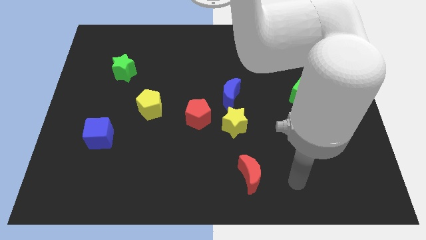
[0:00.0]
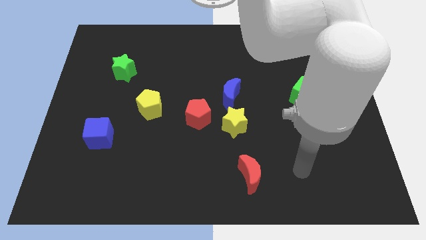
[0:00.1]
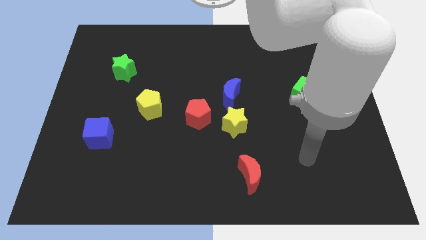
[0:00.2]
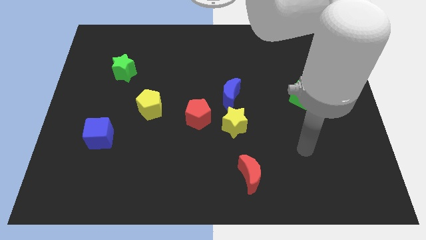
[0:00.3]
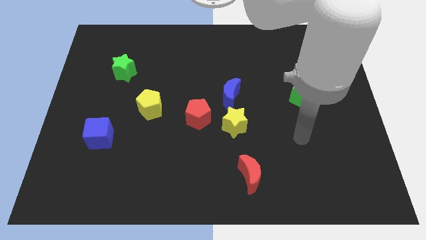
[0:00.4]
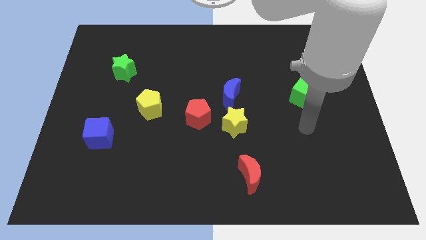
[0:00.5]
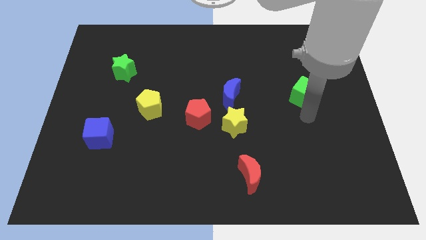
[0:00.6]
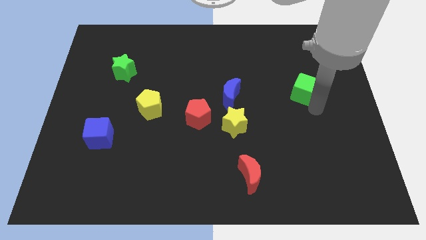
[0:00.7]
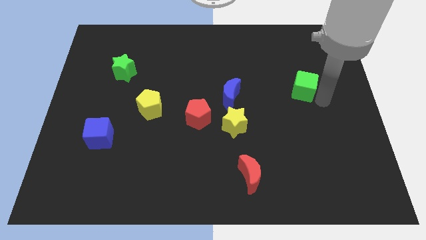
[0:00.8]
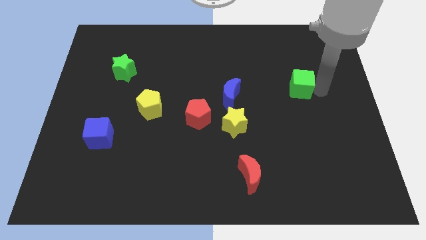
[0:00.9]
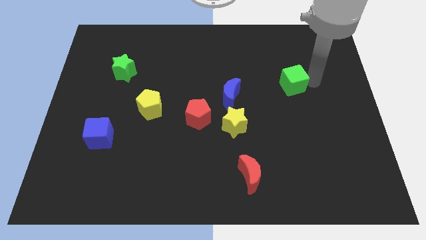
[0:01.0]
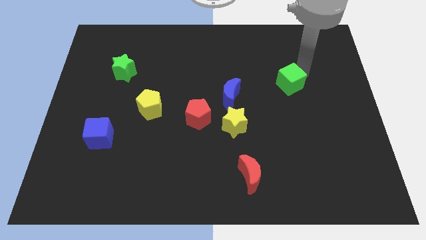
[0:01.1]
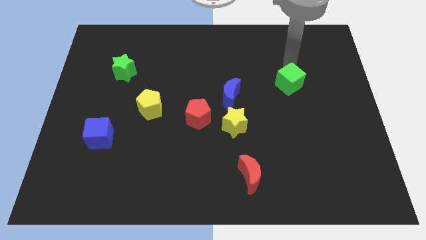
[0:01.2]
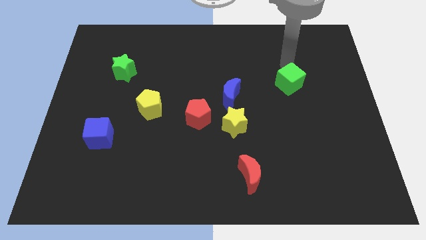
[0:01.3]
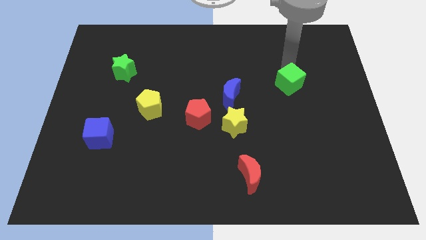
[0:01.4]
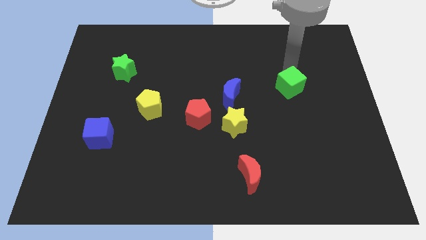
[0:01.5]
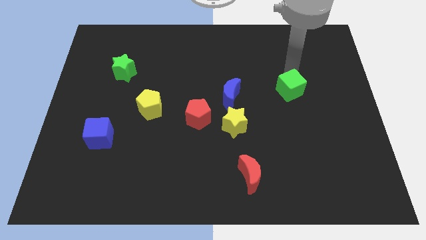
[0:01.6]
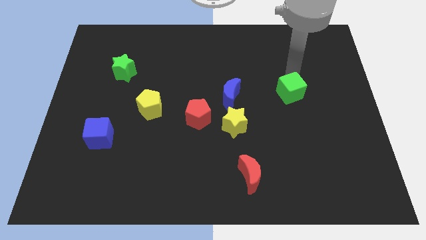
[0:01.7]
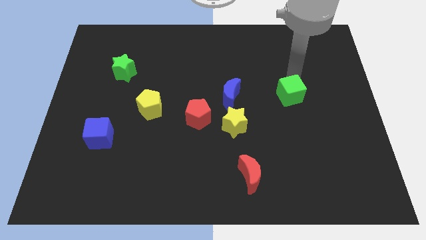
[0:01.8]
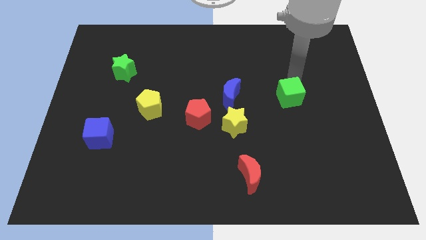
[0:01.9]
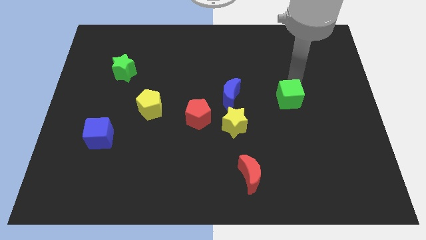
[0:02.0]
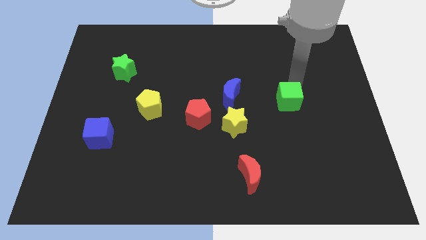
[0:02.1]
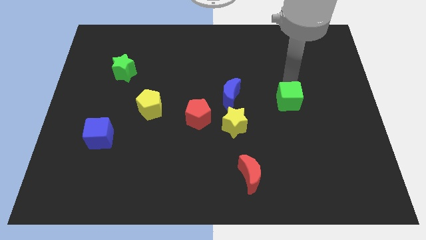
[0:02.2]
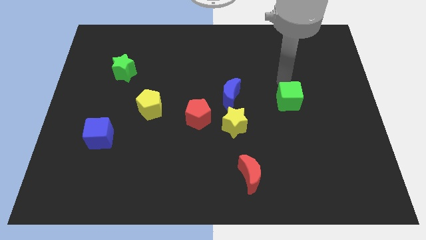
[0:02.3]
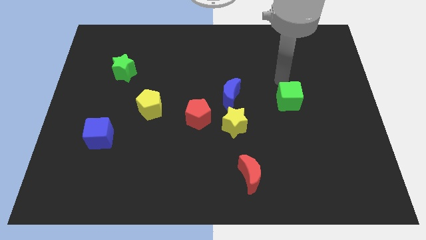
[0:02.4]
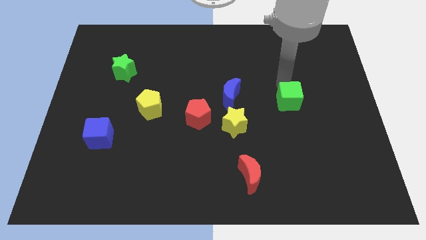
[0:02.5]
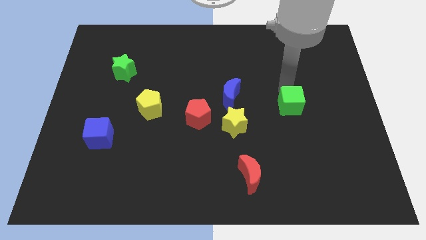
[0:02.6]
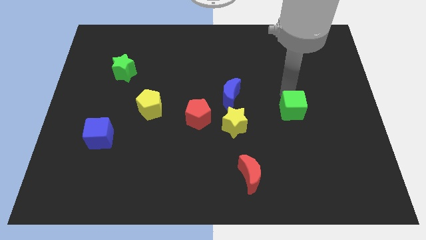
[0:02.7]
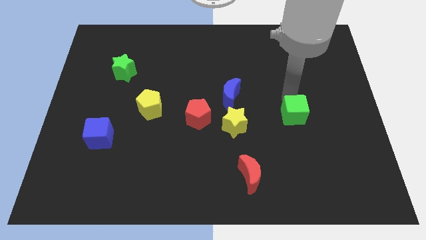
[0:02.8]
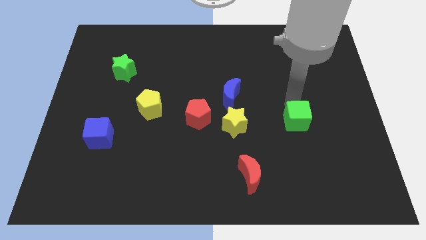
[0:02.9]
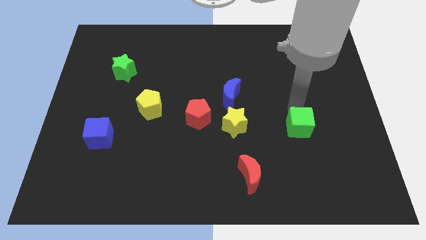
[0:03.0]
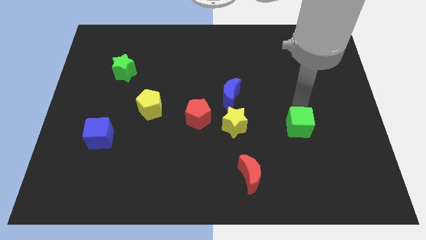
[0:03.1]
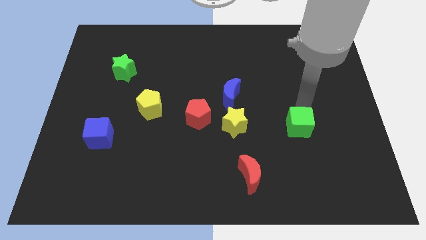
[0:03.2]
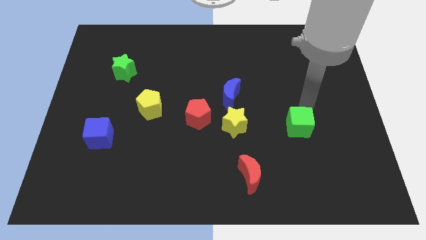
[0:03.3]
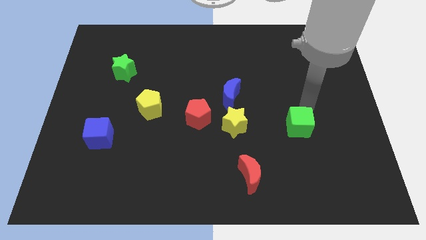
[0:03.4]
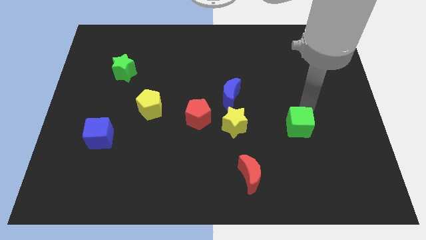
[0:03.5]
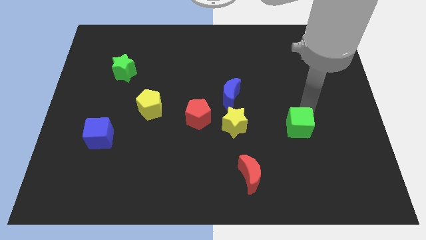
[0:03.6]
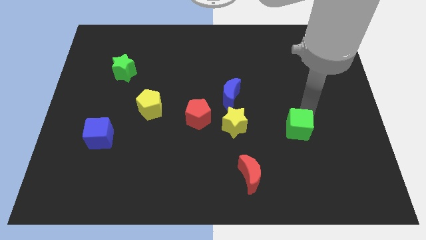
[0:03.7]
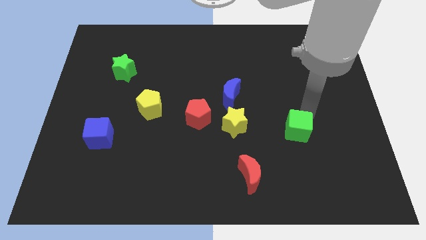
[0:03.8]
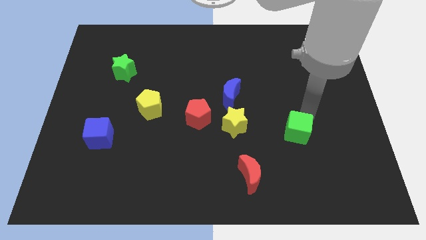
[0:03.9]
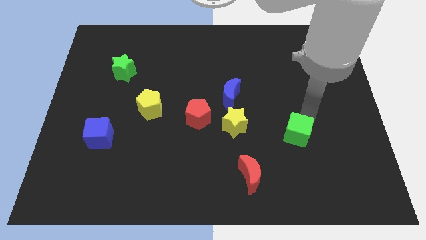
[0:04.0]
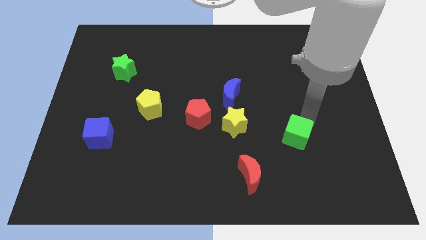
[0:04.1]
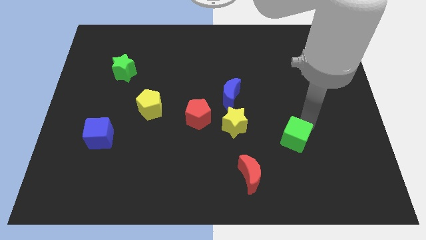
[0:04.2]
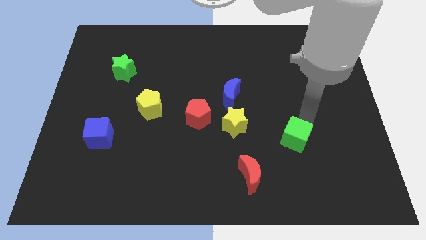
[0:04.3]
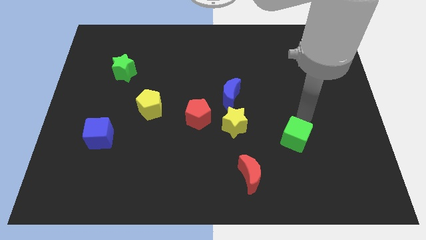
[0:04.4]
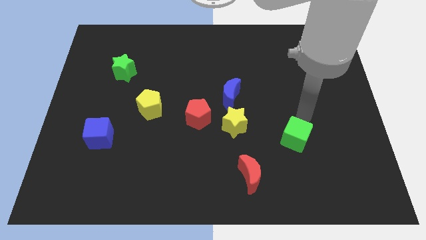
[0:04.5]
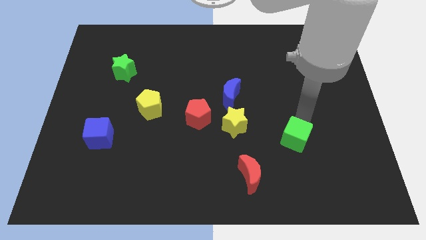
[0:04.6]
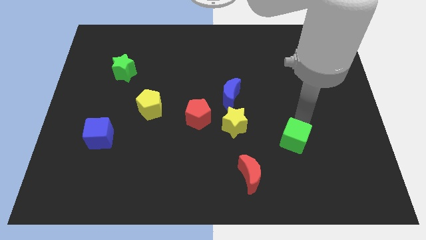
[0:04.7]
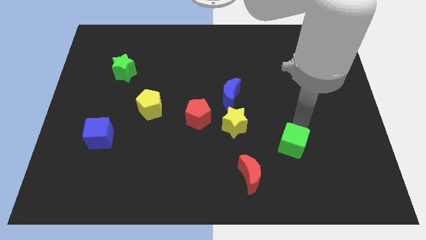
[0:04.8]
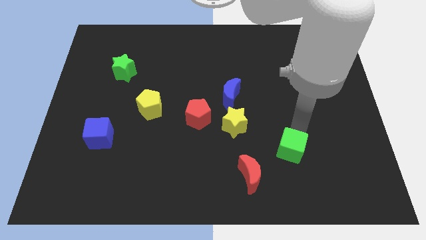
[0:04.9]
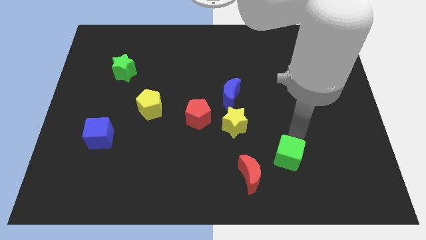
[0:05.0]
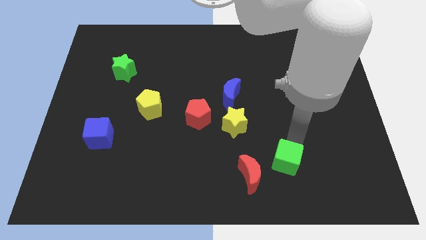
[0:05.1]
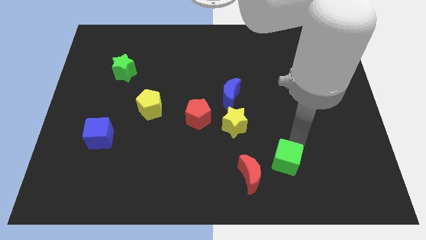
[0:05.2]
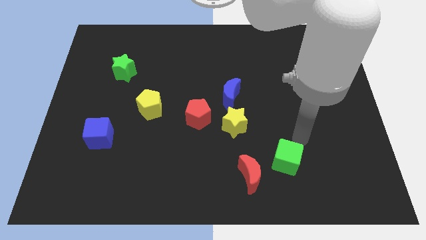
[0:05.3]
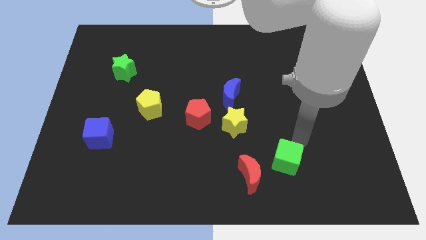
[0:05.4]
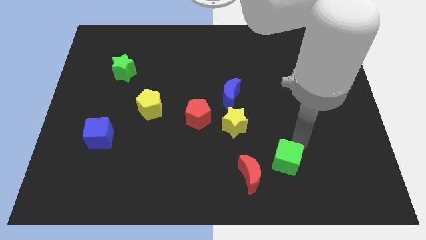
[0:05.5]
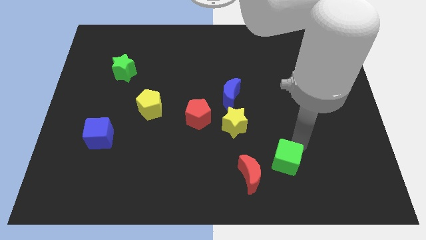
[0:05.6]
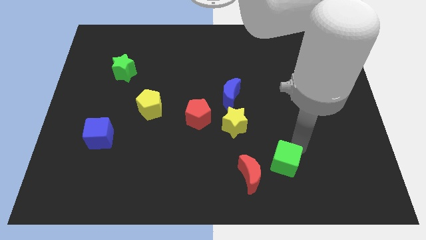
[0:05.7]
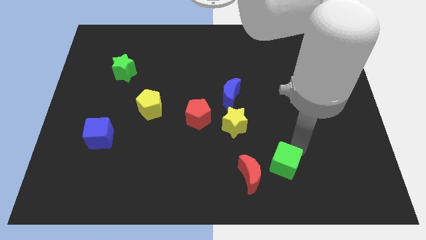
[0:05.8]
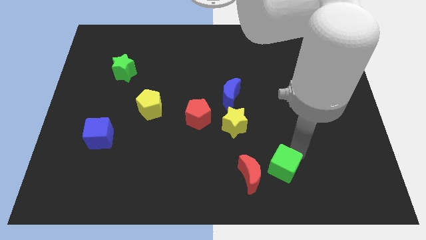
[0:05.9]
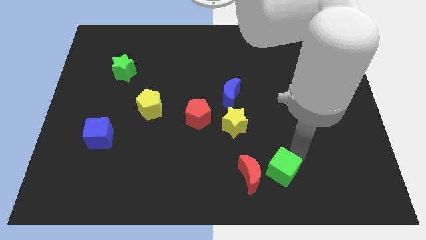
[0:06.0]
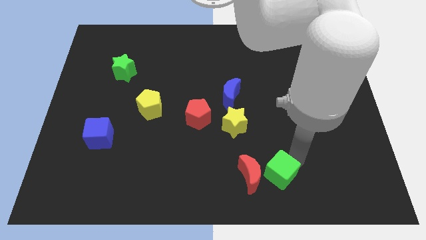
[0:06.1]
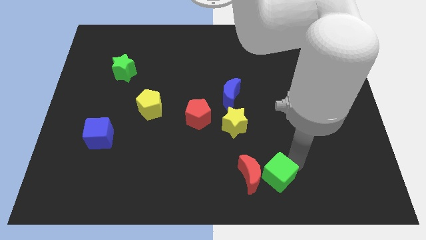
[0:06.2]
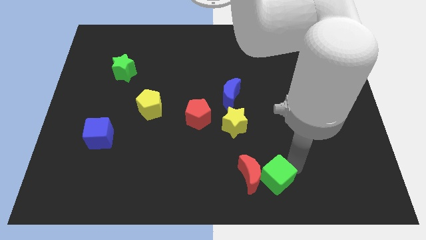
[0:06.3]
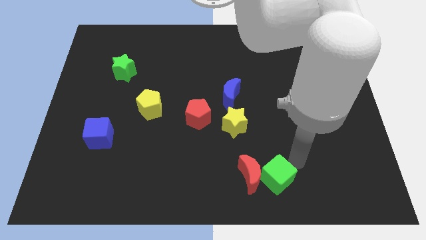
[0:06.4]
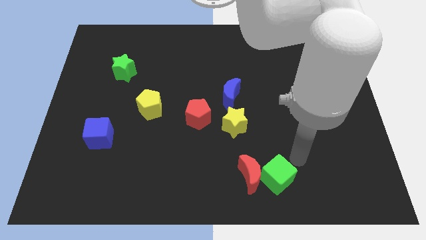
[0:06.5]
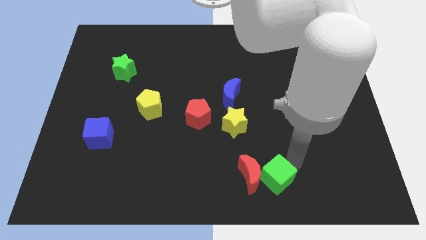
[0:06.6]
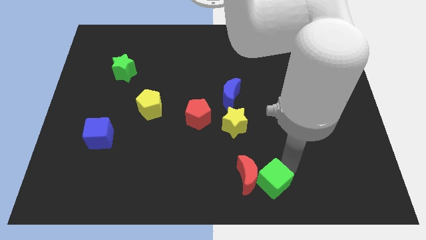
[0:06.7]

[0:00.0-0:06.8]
slide the green cube to the bottom side

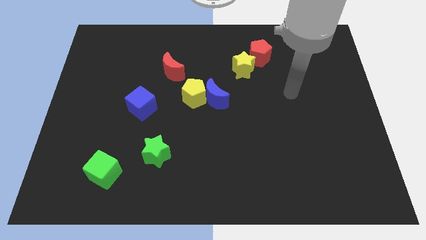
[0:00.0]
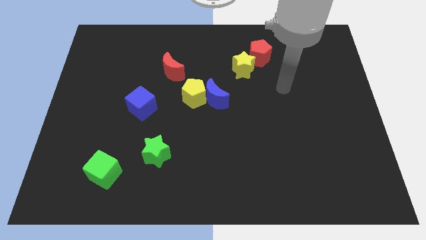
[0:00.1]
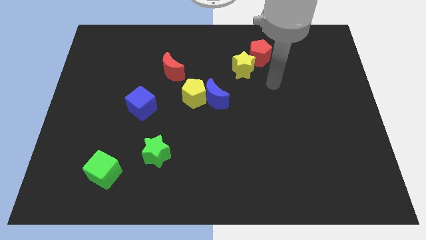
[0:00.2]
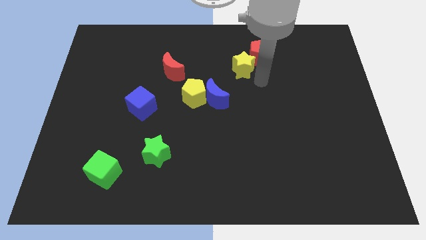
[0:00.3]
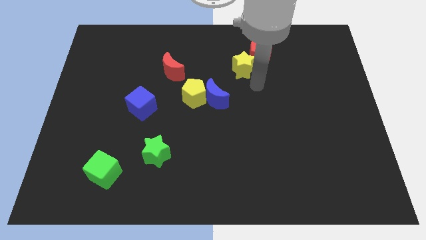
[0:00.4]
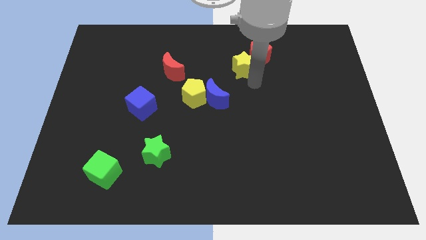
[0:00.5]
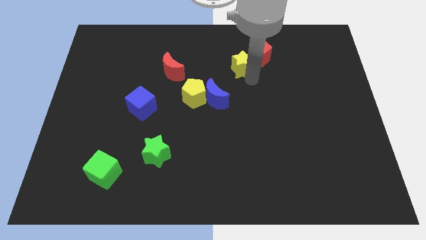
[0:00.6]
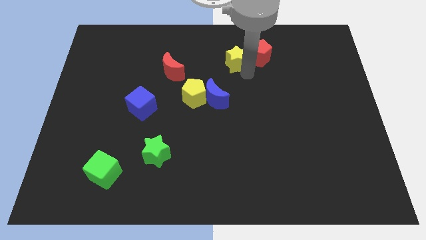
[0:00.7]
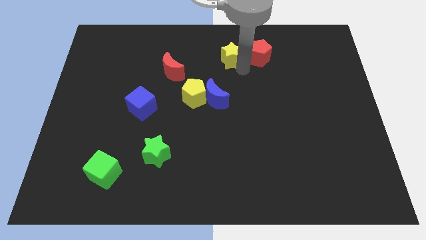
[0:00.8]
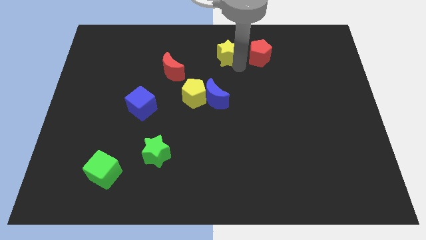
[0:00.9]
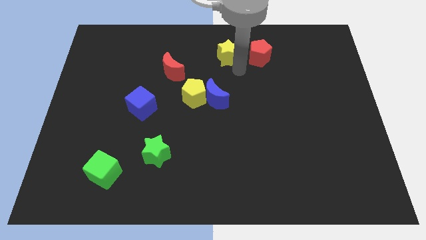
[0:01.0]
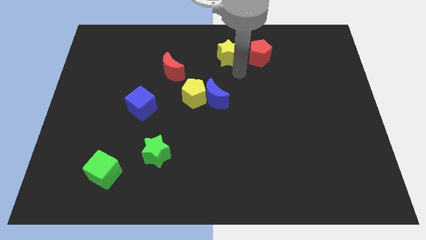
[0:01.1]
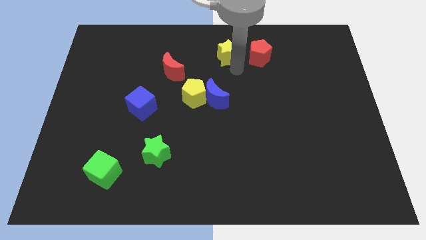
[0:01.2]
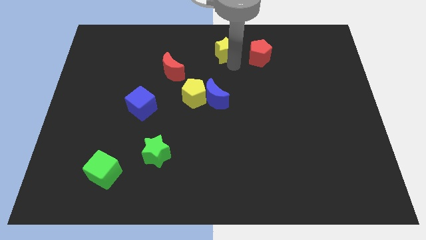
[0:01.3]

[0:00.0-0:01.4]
put the yellow star to the towards your base
